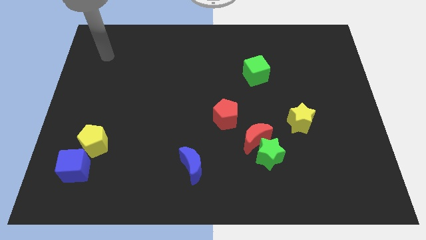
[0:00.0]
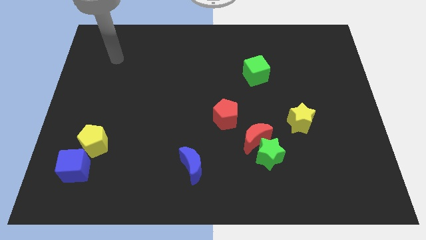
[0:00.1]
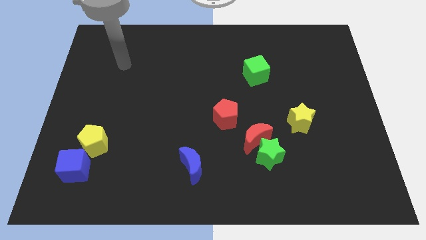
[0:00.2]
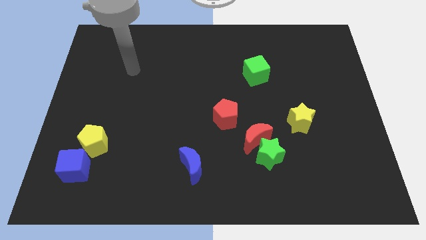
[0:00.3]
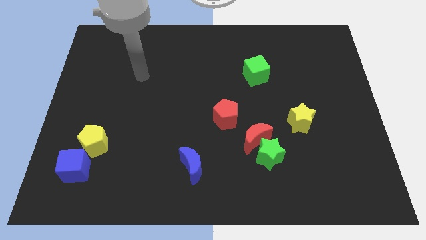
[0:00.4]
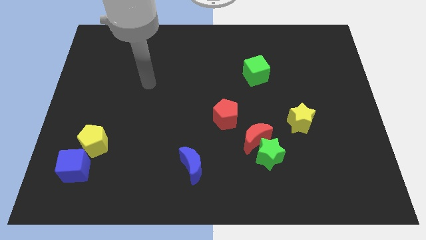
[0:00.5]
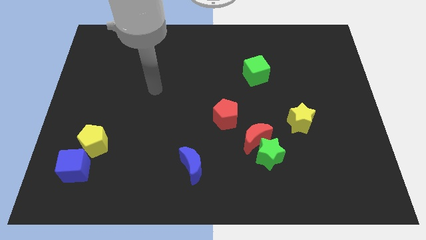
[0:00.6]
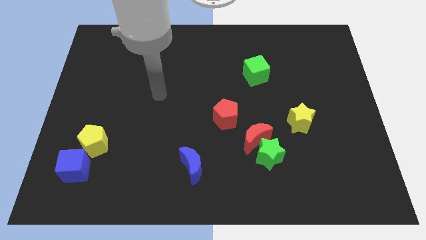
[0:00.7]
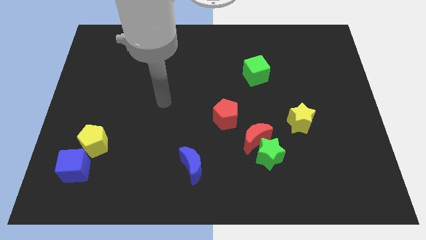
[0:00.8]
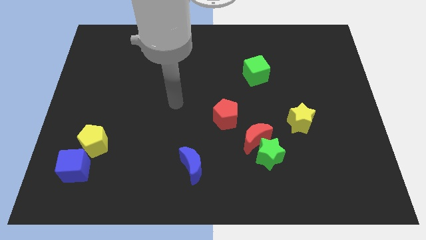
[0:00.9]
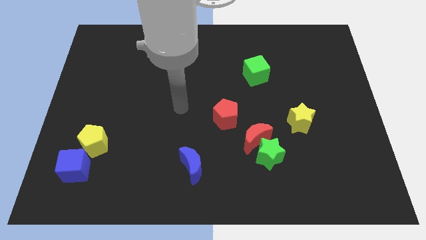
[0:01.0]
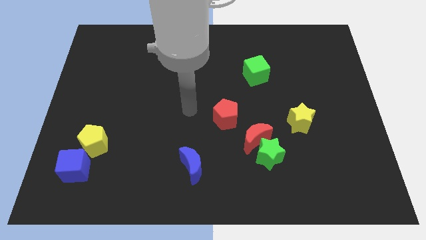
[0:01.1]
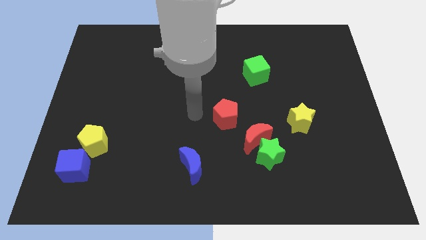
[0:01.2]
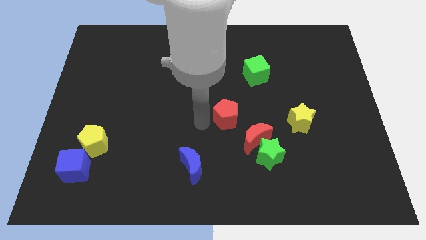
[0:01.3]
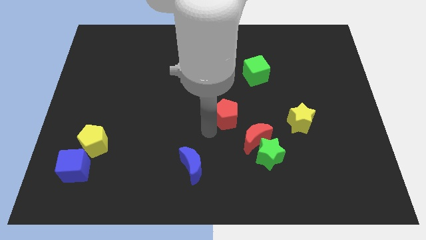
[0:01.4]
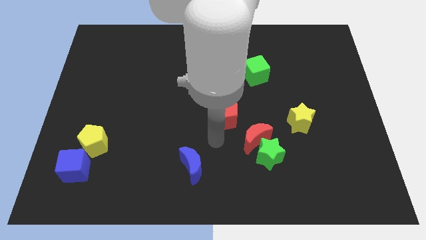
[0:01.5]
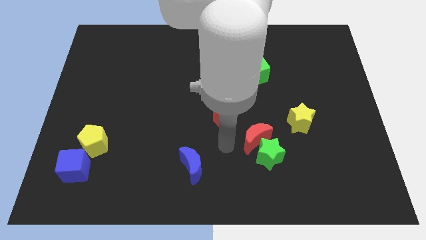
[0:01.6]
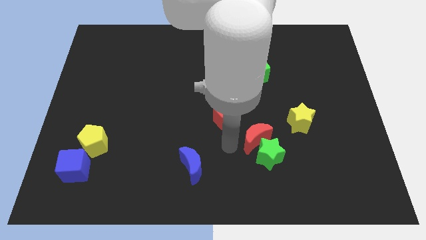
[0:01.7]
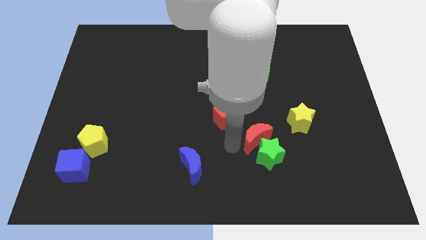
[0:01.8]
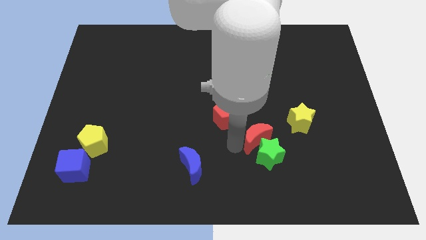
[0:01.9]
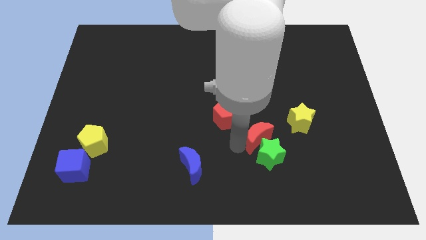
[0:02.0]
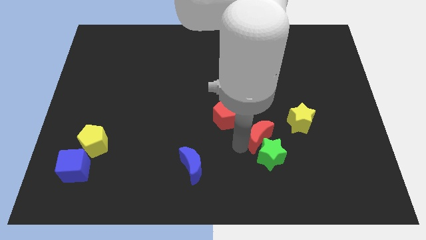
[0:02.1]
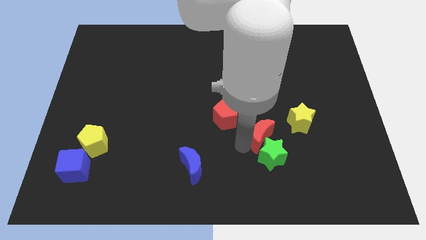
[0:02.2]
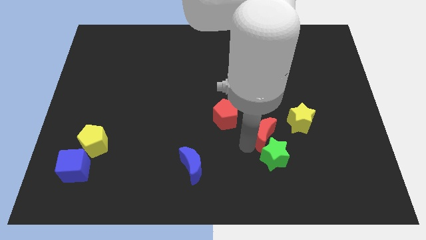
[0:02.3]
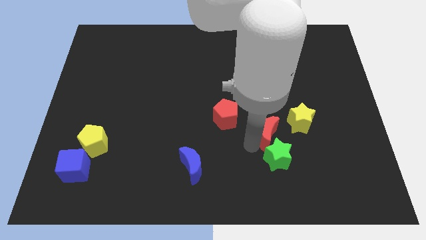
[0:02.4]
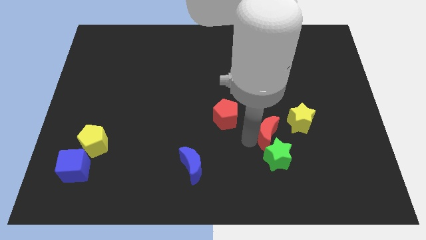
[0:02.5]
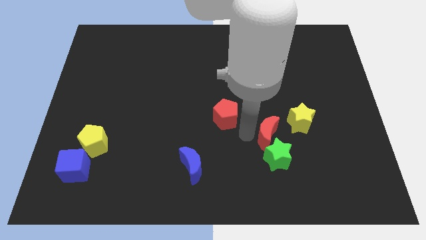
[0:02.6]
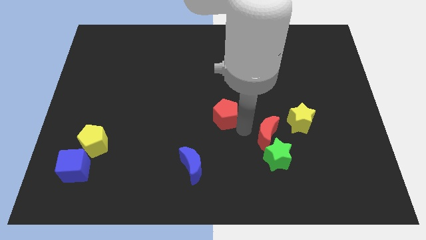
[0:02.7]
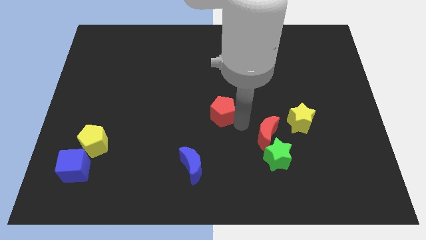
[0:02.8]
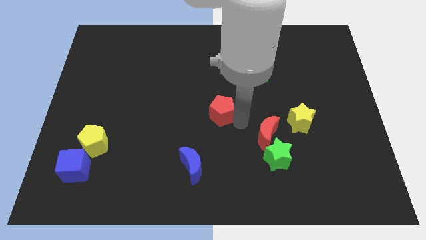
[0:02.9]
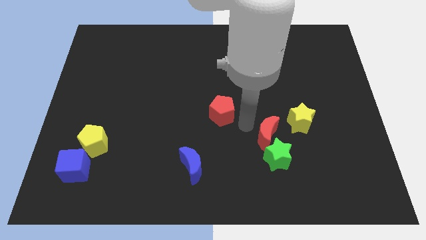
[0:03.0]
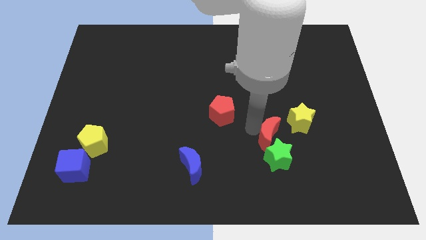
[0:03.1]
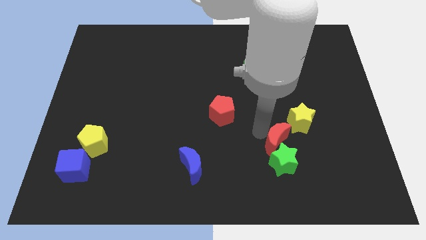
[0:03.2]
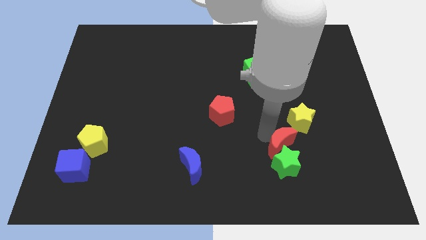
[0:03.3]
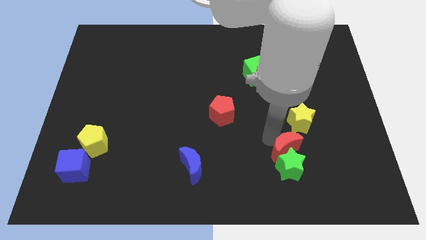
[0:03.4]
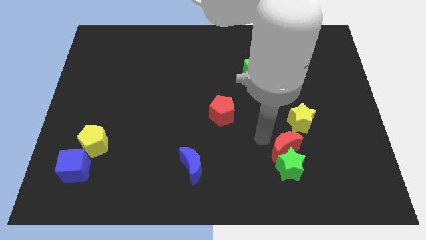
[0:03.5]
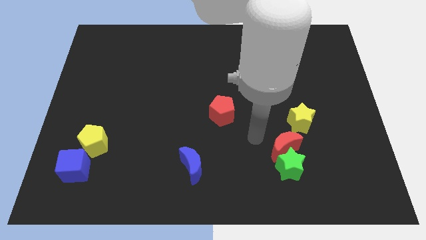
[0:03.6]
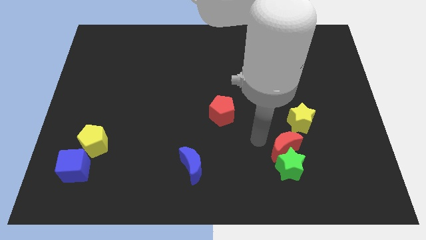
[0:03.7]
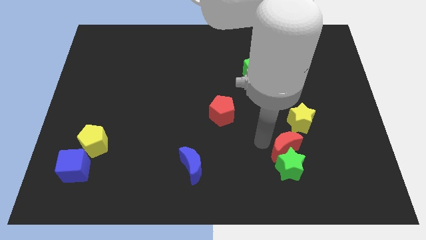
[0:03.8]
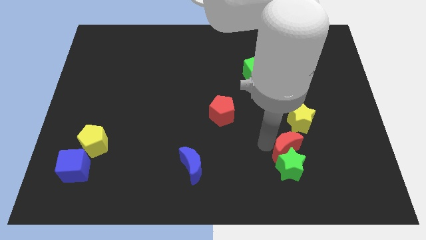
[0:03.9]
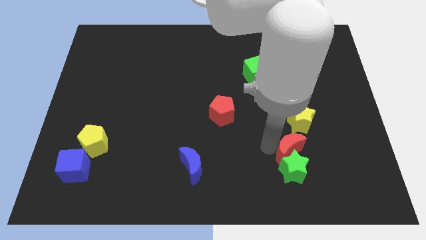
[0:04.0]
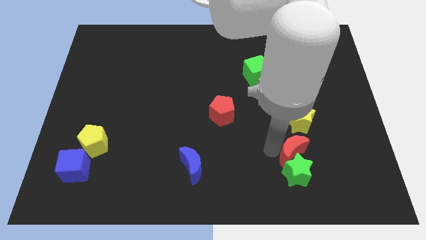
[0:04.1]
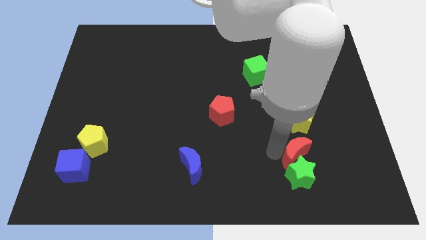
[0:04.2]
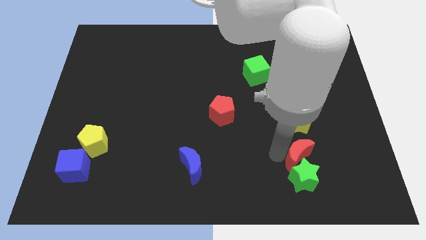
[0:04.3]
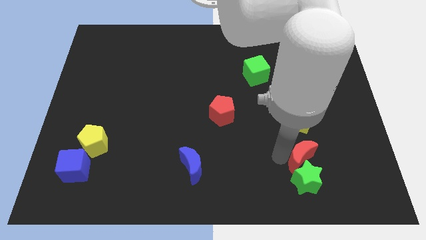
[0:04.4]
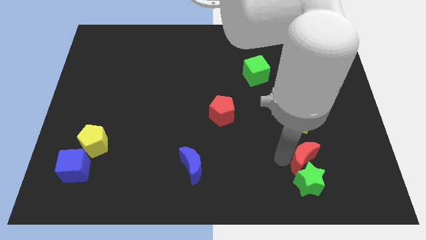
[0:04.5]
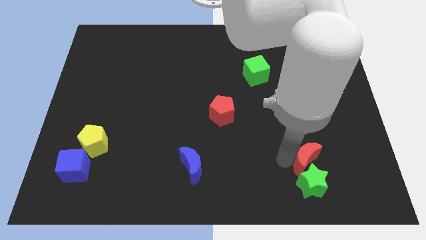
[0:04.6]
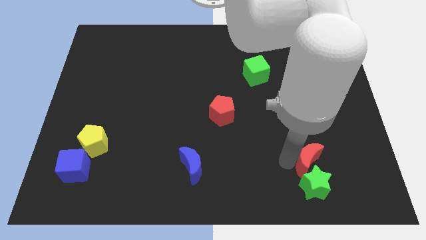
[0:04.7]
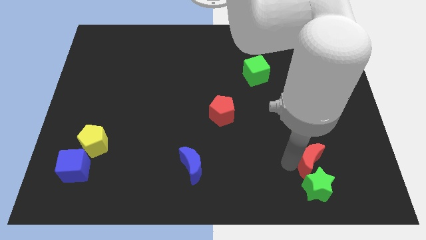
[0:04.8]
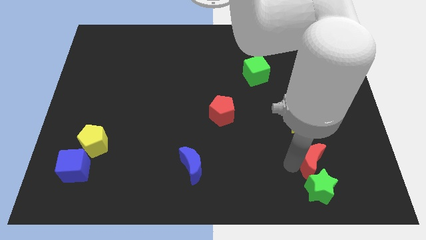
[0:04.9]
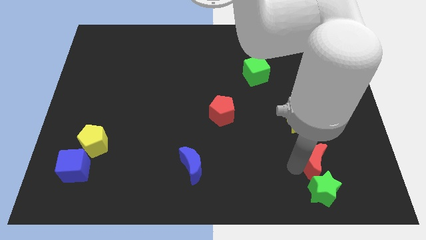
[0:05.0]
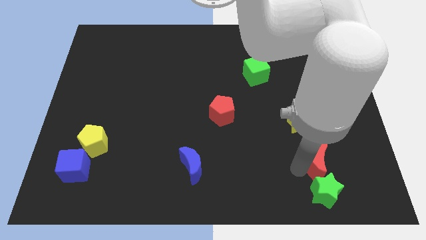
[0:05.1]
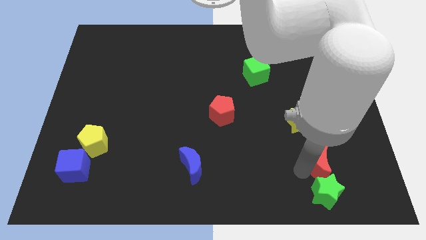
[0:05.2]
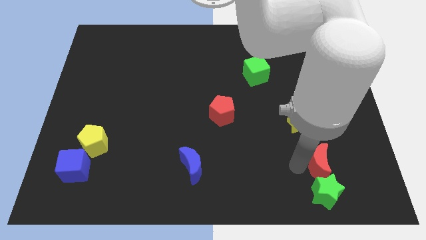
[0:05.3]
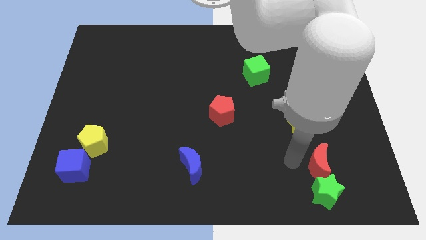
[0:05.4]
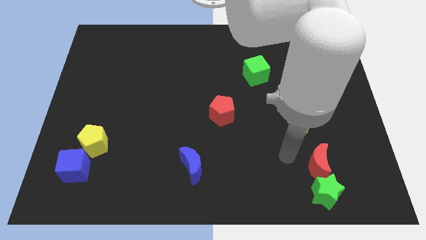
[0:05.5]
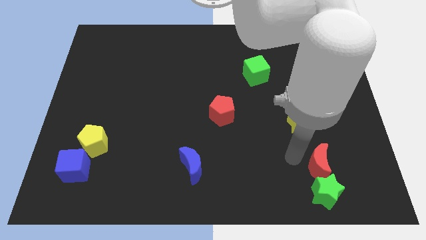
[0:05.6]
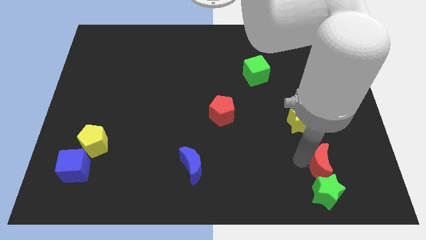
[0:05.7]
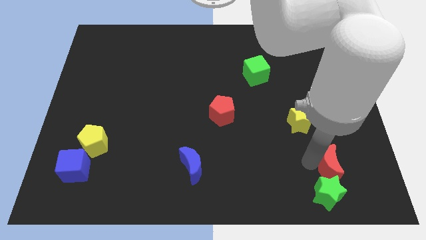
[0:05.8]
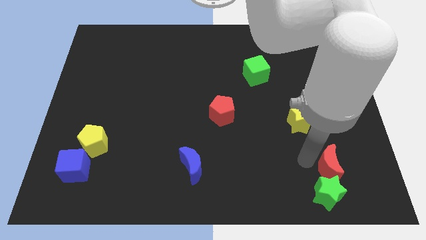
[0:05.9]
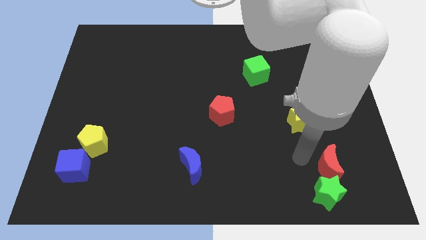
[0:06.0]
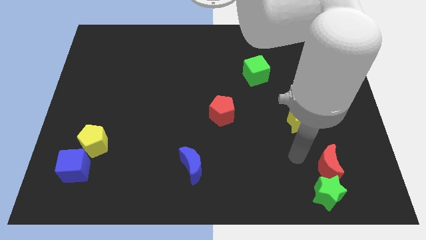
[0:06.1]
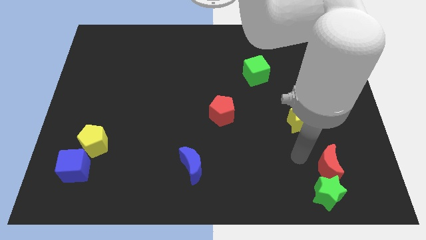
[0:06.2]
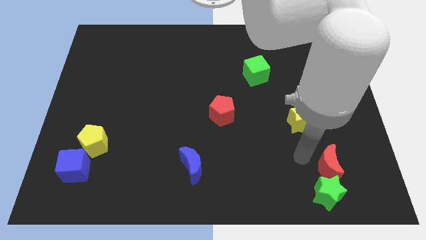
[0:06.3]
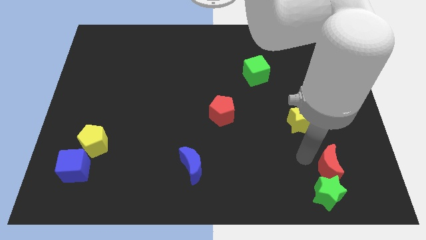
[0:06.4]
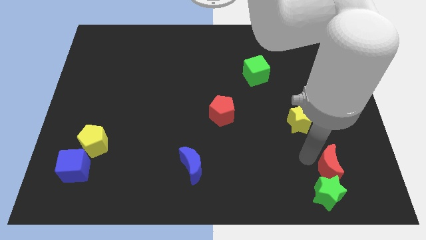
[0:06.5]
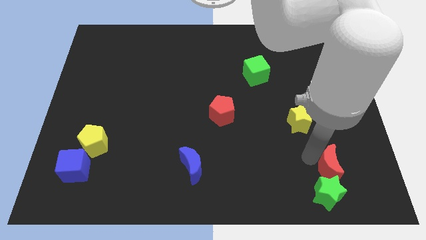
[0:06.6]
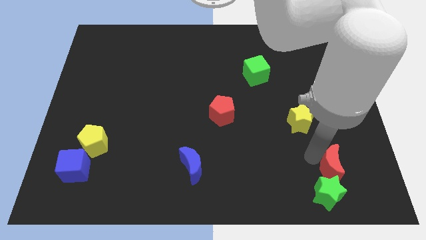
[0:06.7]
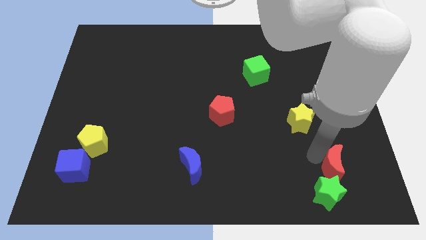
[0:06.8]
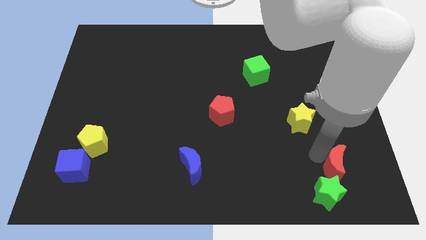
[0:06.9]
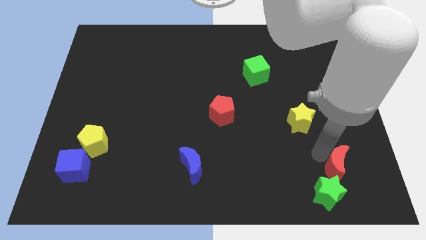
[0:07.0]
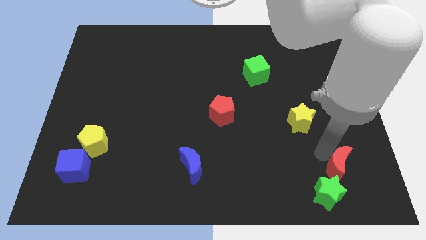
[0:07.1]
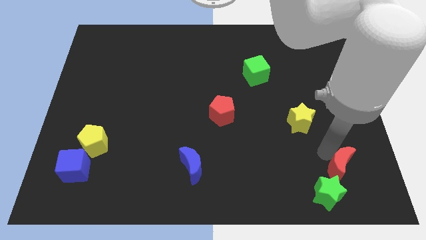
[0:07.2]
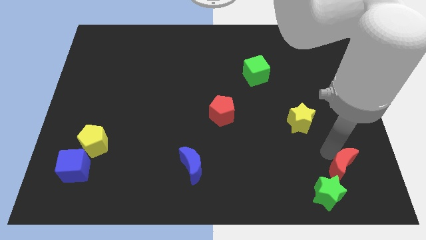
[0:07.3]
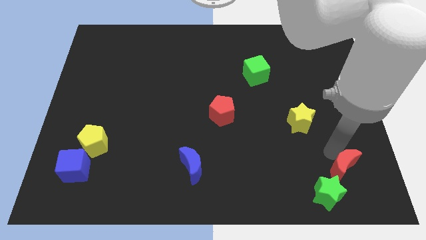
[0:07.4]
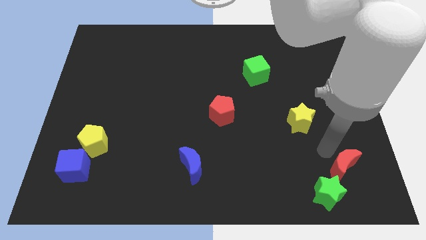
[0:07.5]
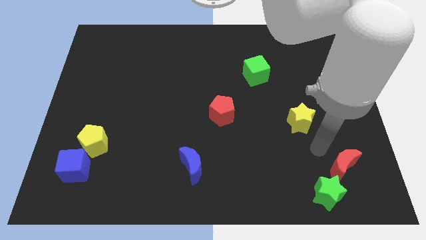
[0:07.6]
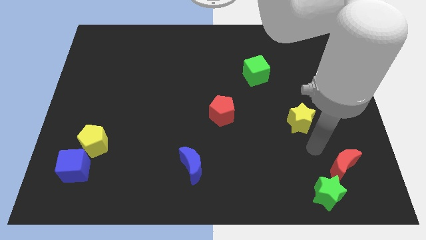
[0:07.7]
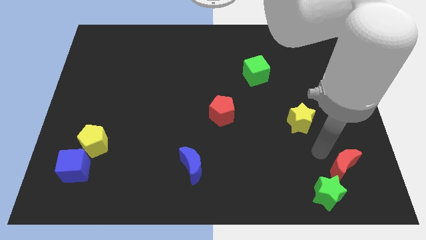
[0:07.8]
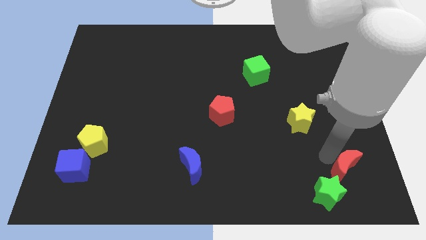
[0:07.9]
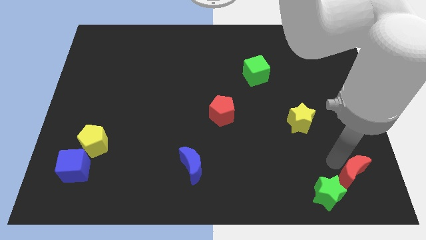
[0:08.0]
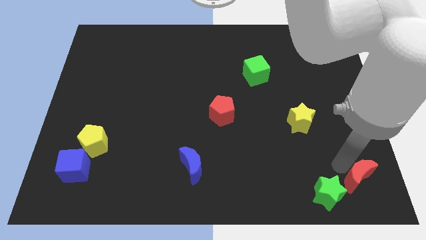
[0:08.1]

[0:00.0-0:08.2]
move the red moon to the bottom right of the board
